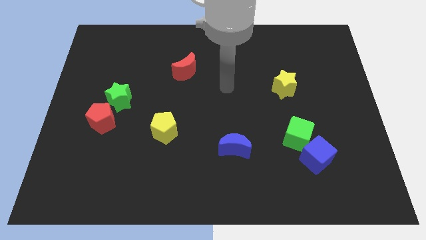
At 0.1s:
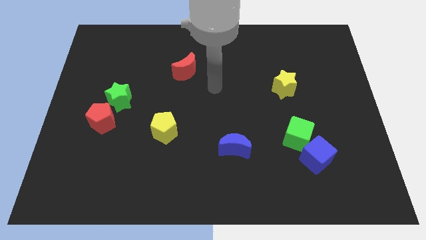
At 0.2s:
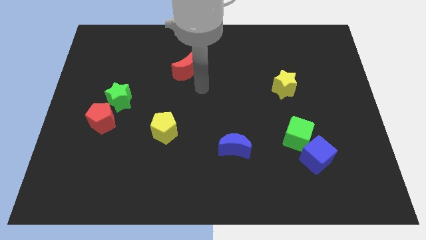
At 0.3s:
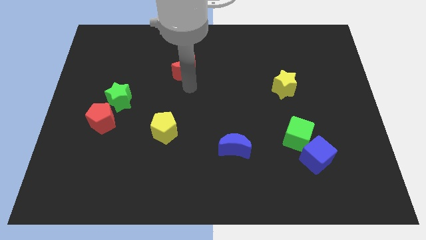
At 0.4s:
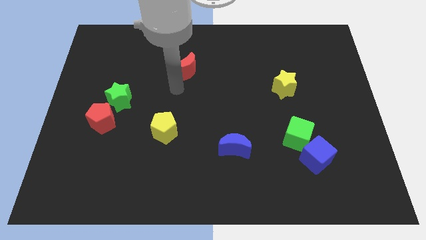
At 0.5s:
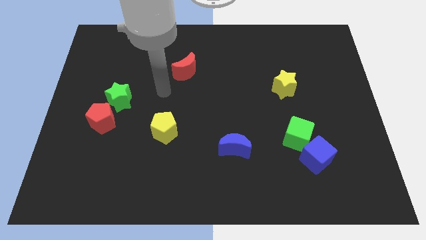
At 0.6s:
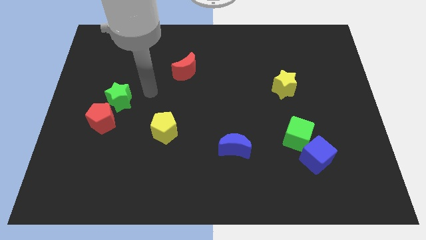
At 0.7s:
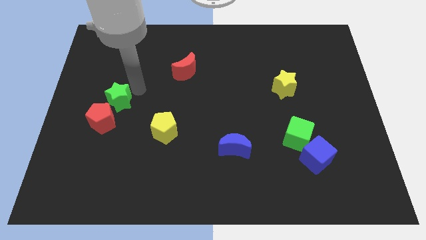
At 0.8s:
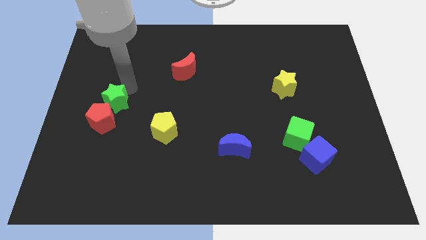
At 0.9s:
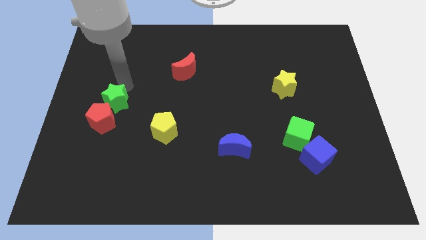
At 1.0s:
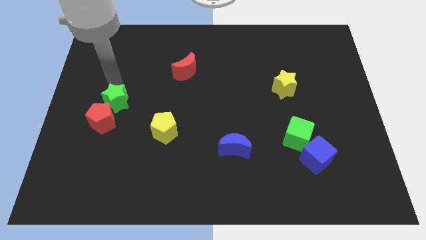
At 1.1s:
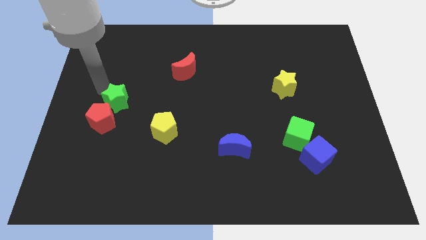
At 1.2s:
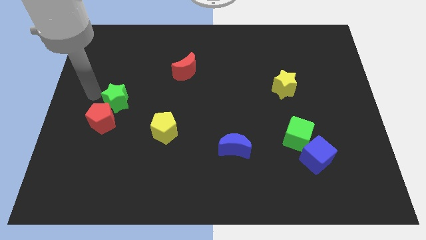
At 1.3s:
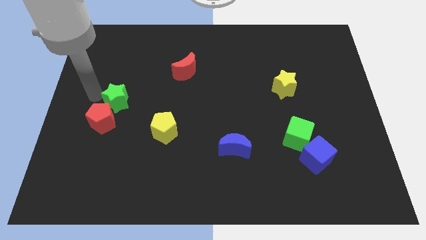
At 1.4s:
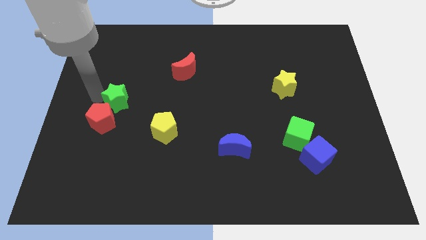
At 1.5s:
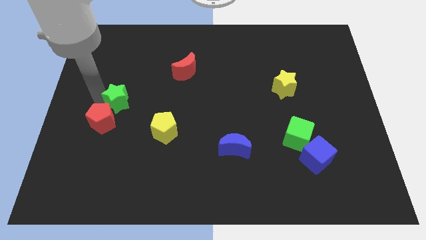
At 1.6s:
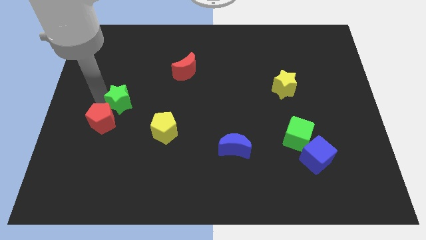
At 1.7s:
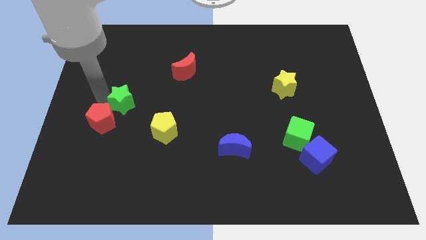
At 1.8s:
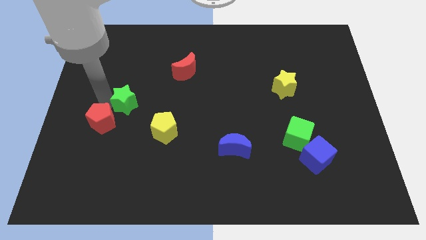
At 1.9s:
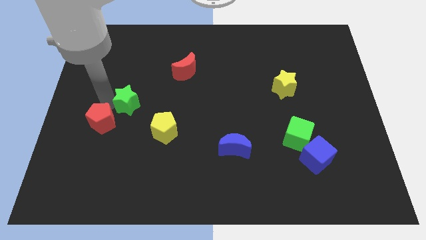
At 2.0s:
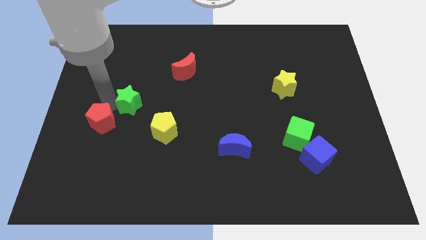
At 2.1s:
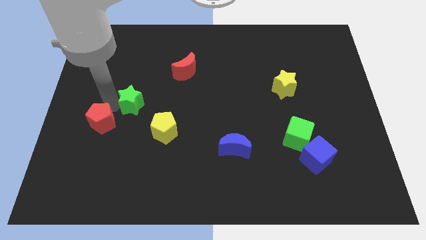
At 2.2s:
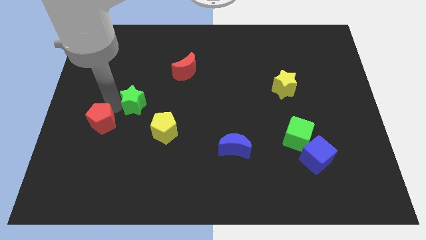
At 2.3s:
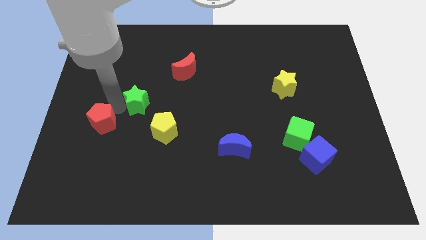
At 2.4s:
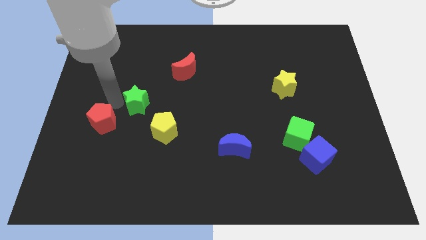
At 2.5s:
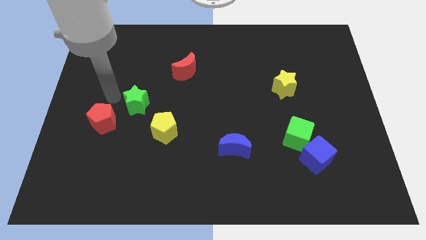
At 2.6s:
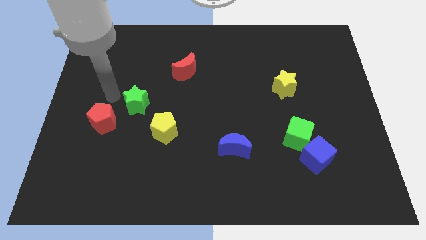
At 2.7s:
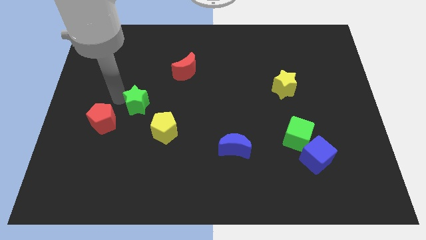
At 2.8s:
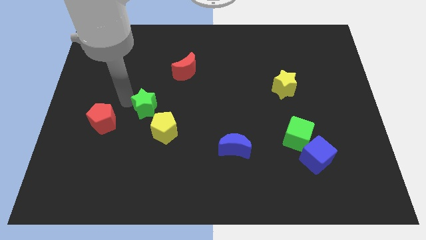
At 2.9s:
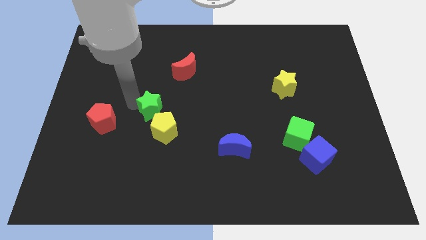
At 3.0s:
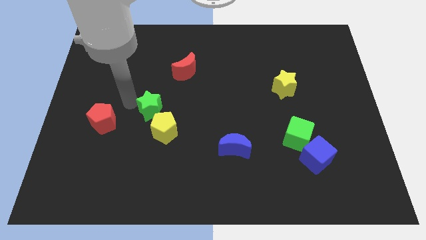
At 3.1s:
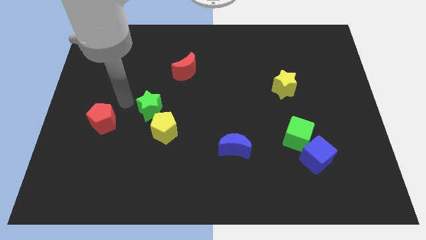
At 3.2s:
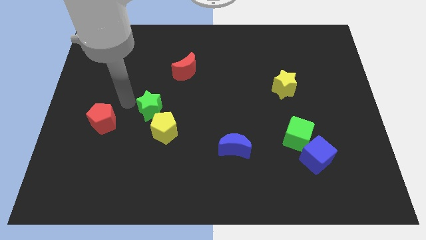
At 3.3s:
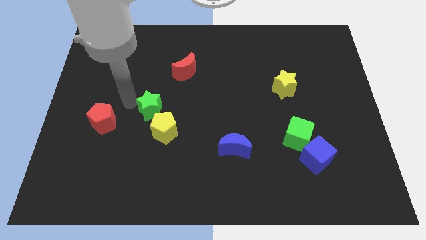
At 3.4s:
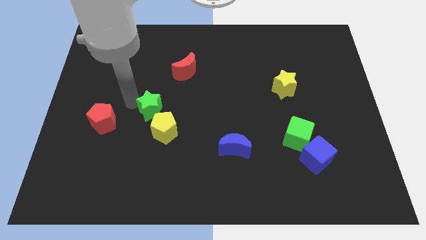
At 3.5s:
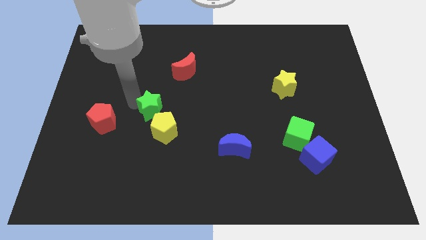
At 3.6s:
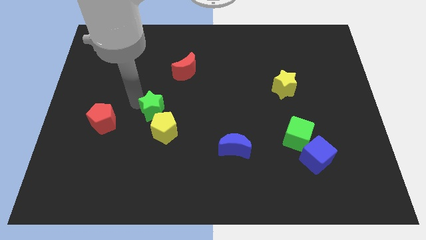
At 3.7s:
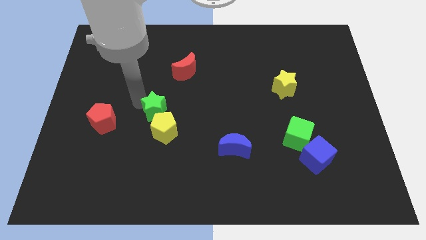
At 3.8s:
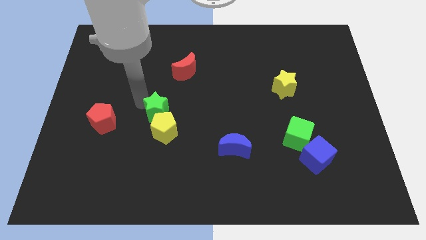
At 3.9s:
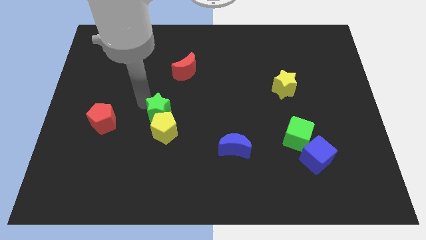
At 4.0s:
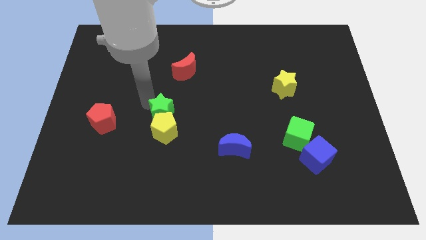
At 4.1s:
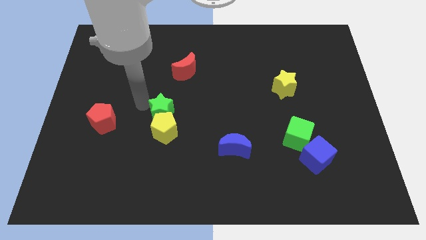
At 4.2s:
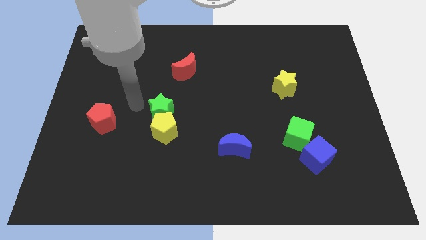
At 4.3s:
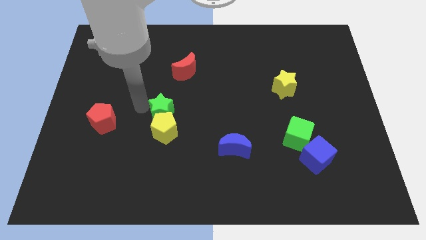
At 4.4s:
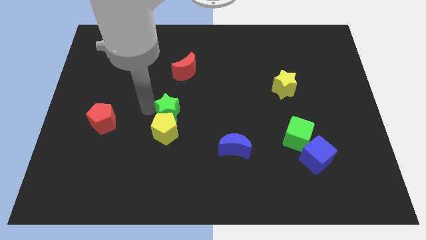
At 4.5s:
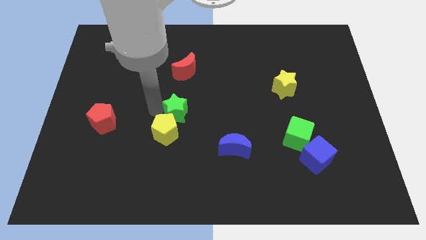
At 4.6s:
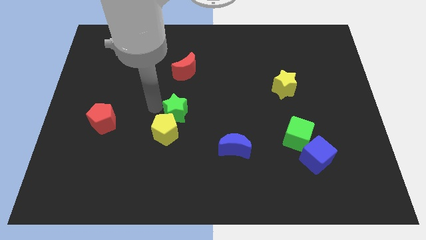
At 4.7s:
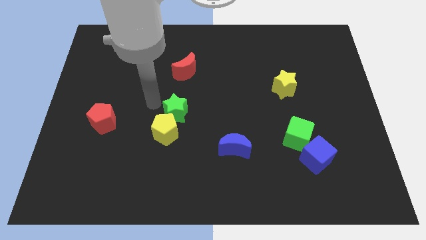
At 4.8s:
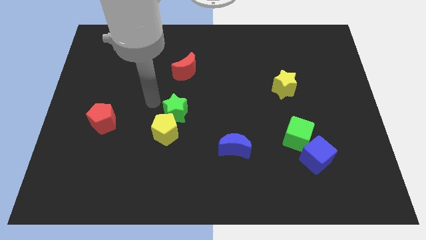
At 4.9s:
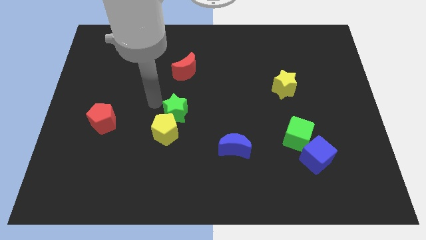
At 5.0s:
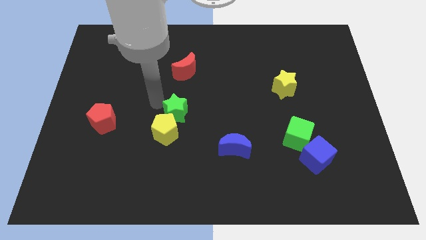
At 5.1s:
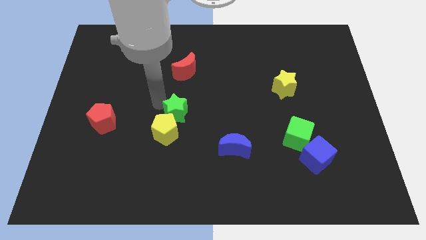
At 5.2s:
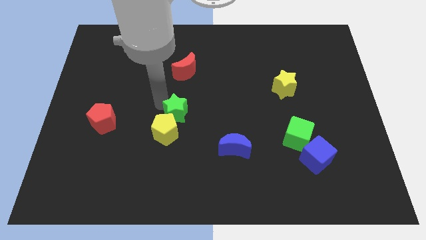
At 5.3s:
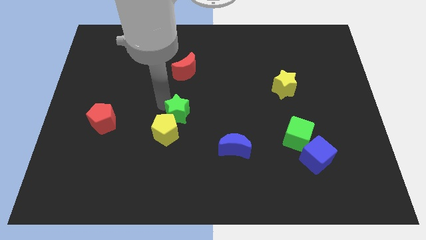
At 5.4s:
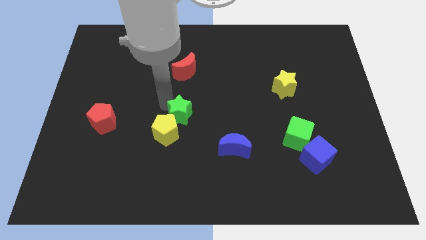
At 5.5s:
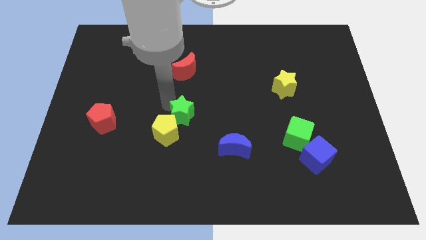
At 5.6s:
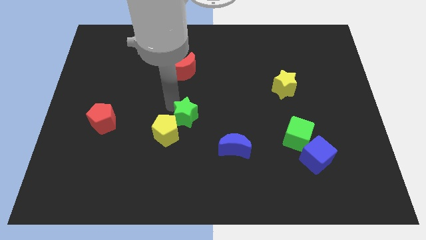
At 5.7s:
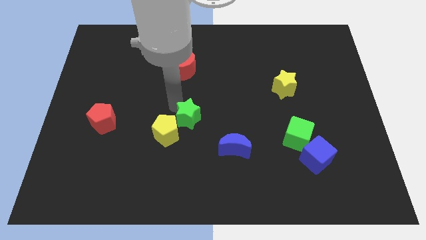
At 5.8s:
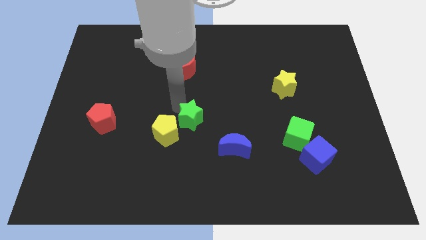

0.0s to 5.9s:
put the green star to the top left of the blue moon

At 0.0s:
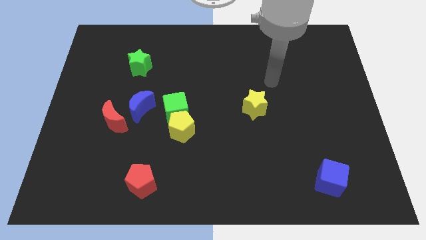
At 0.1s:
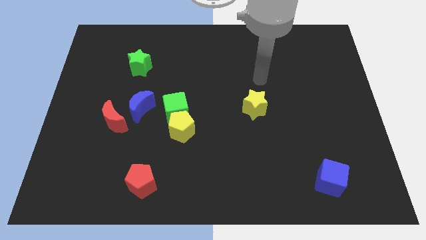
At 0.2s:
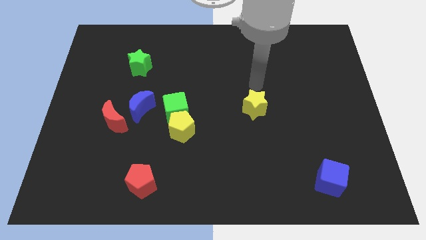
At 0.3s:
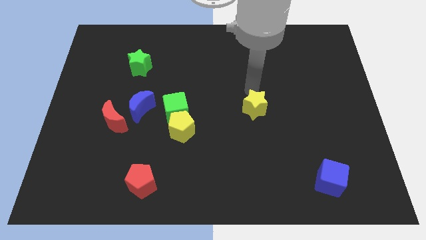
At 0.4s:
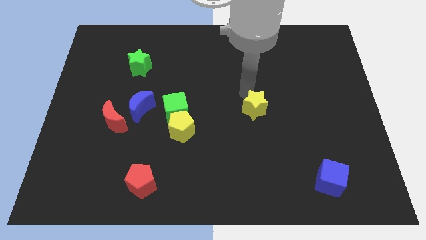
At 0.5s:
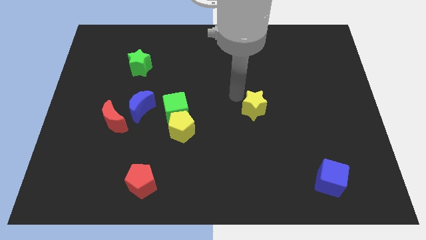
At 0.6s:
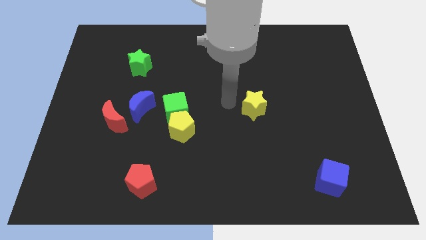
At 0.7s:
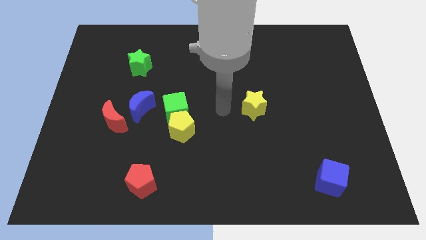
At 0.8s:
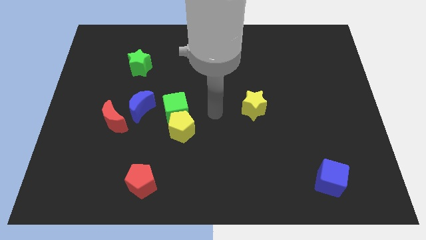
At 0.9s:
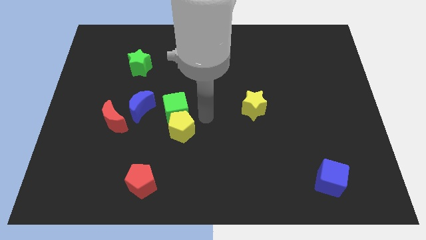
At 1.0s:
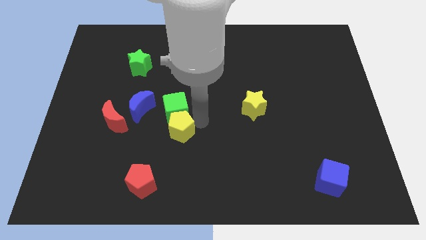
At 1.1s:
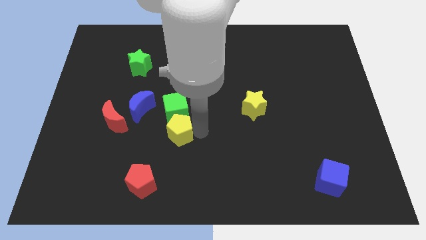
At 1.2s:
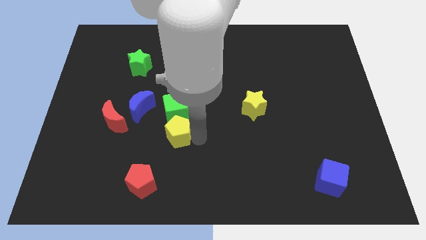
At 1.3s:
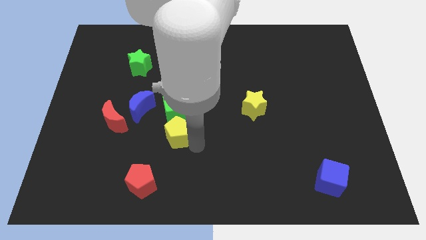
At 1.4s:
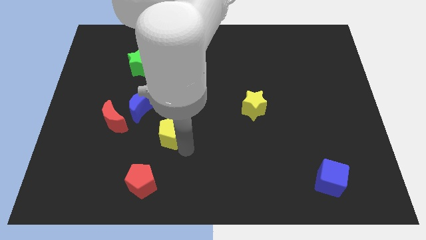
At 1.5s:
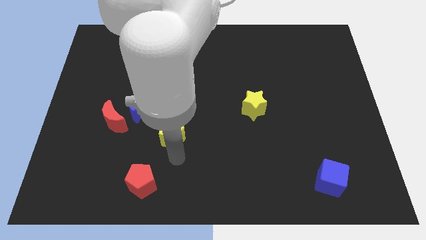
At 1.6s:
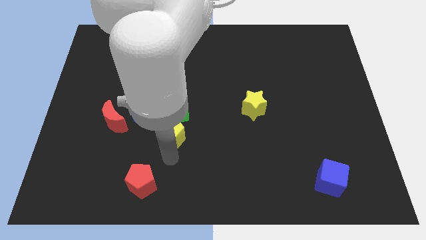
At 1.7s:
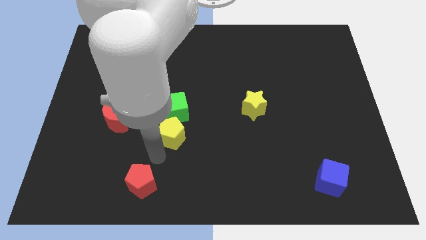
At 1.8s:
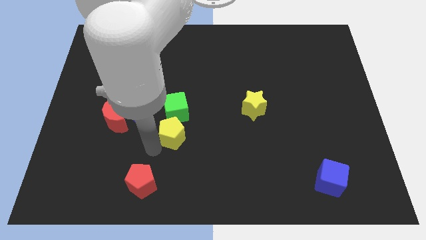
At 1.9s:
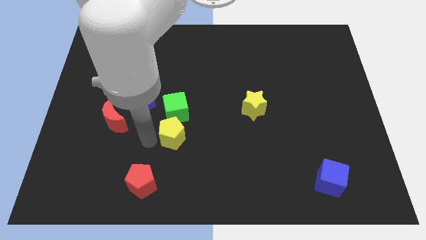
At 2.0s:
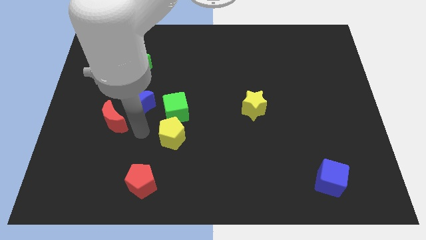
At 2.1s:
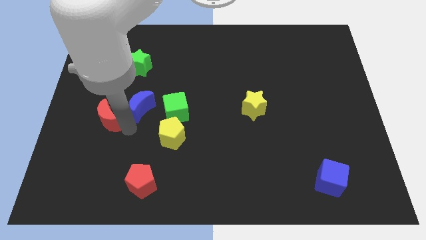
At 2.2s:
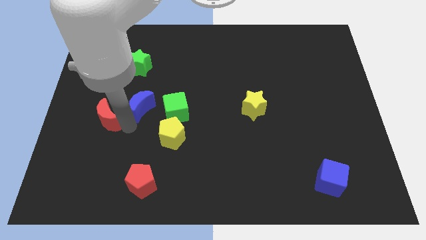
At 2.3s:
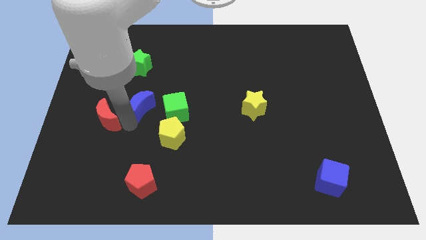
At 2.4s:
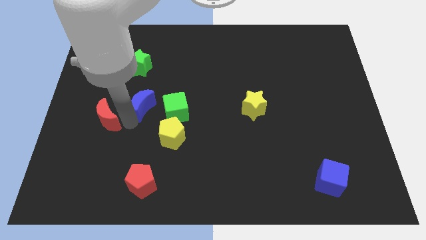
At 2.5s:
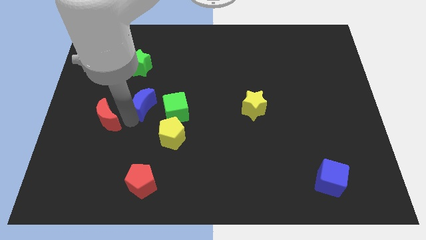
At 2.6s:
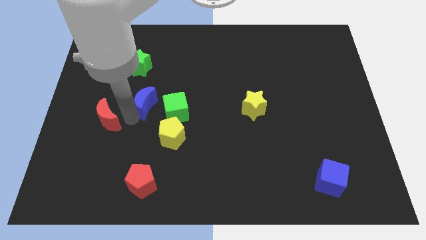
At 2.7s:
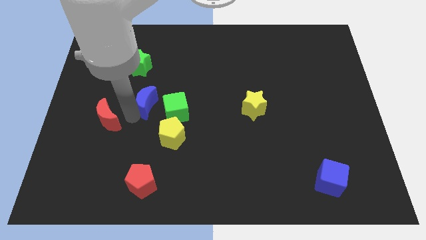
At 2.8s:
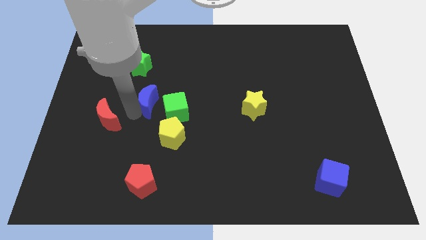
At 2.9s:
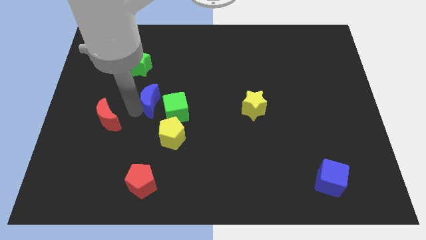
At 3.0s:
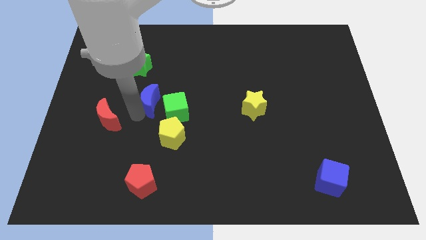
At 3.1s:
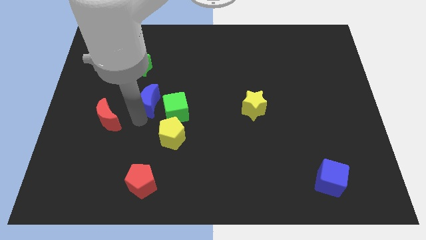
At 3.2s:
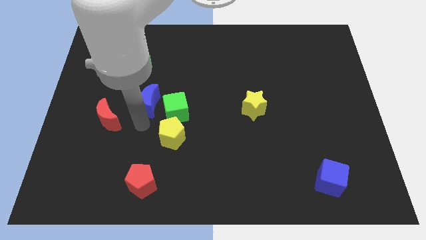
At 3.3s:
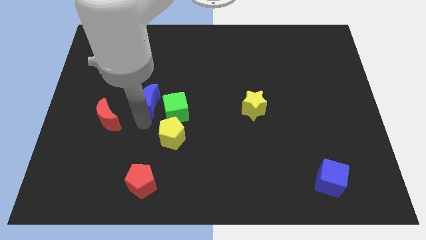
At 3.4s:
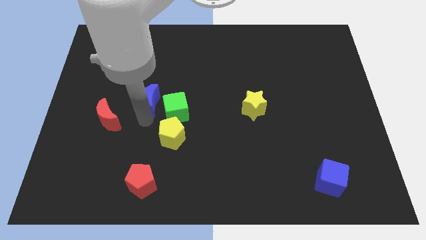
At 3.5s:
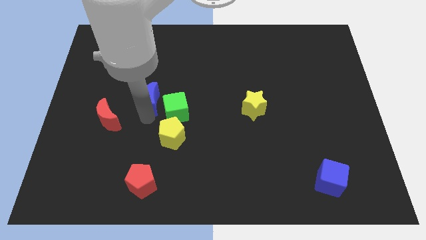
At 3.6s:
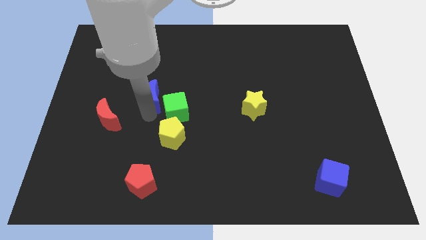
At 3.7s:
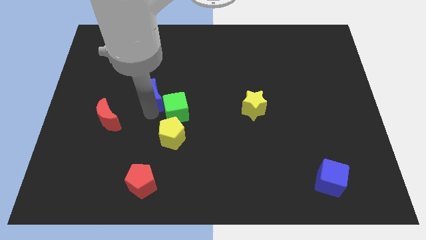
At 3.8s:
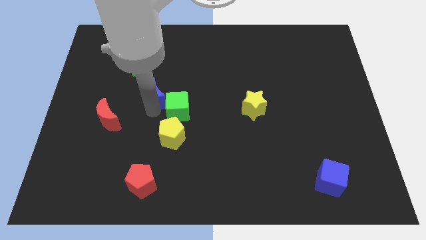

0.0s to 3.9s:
push the blue moon to the bottom right of the green star
